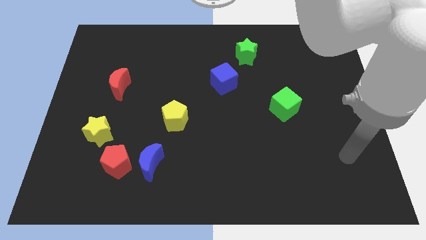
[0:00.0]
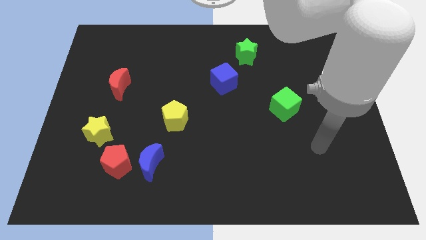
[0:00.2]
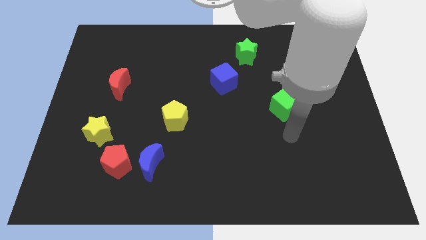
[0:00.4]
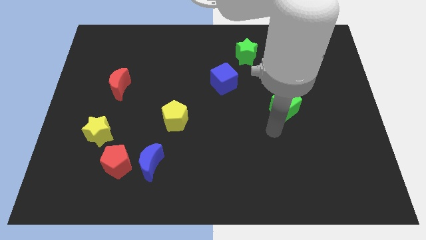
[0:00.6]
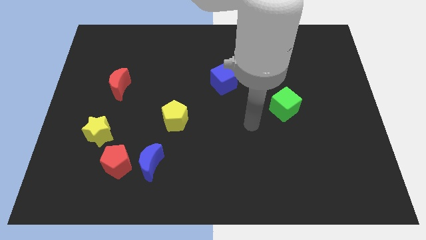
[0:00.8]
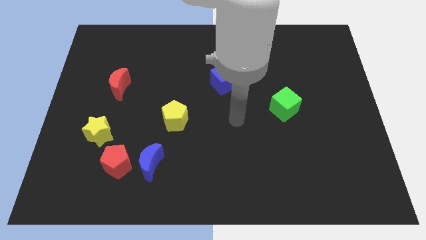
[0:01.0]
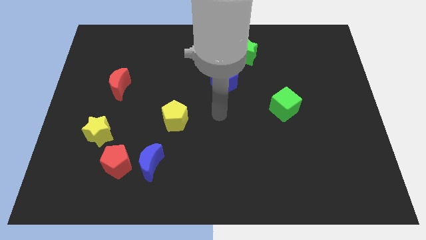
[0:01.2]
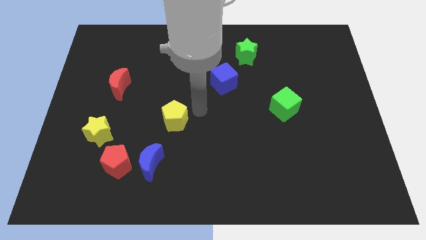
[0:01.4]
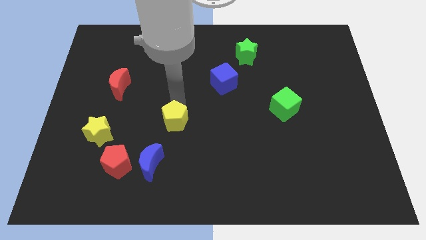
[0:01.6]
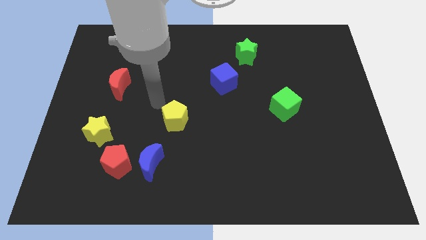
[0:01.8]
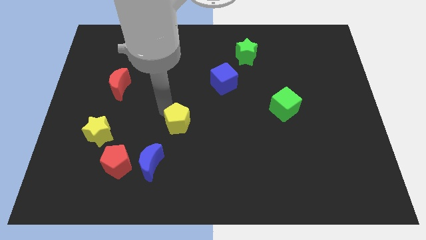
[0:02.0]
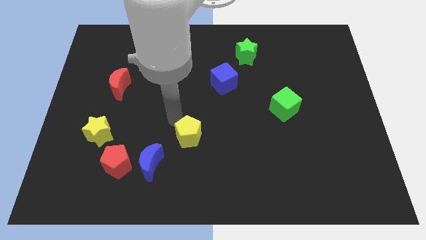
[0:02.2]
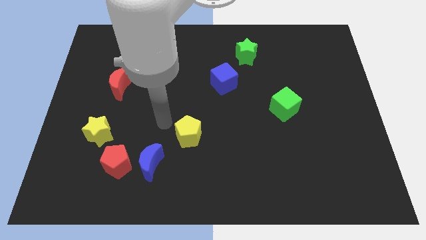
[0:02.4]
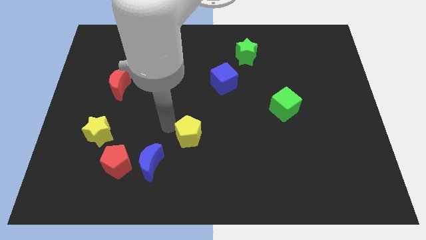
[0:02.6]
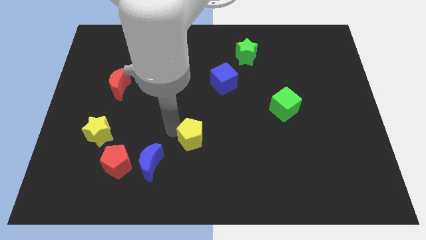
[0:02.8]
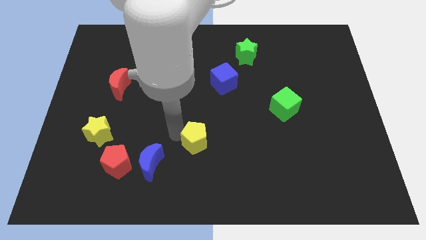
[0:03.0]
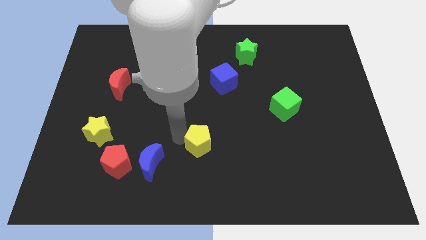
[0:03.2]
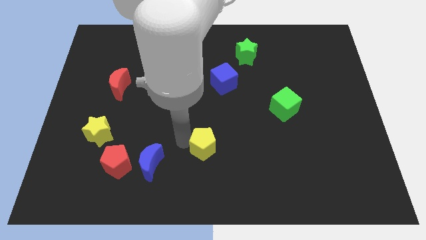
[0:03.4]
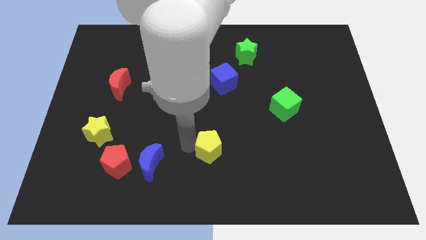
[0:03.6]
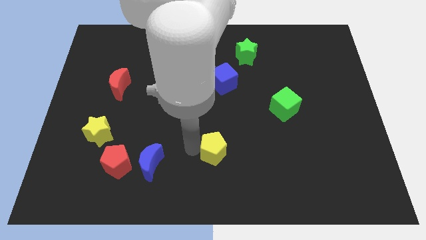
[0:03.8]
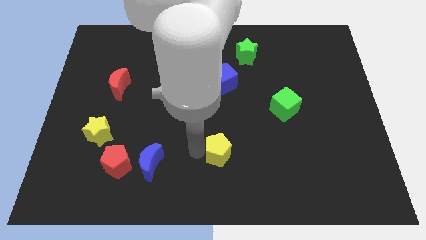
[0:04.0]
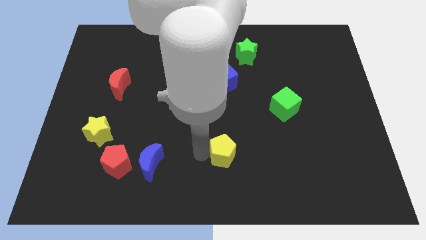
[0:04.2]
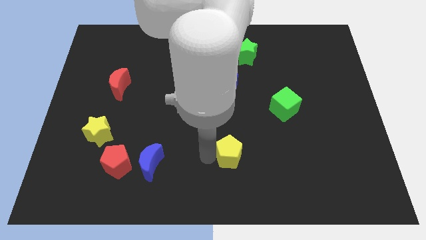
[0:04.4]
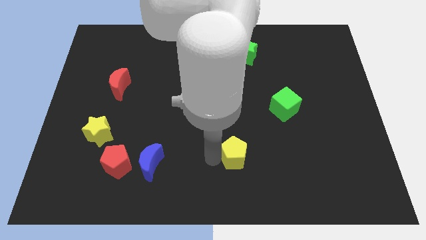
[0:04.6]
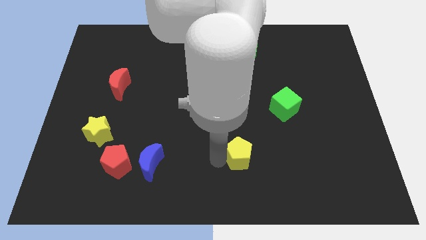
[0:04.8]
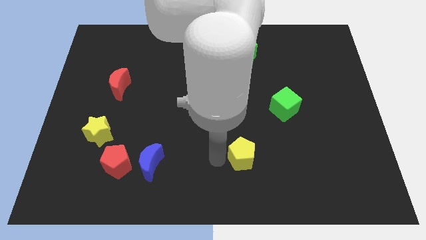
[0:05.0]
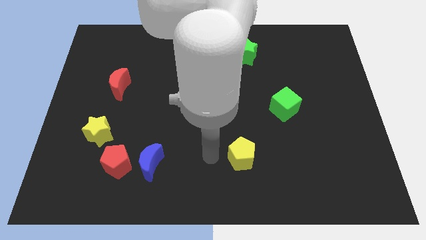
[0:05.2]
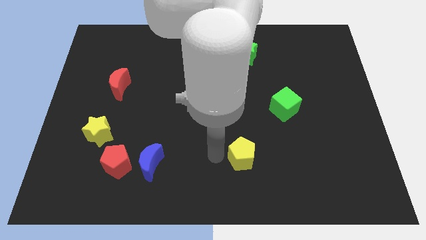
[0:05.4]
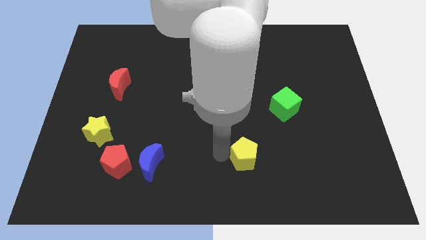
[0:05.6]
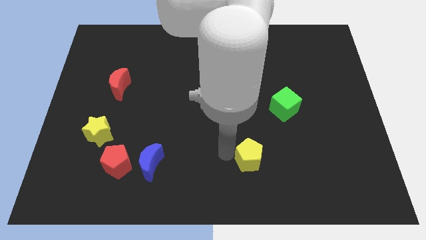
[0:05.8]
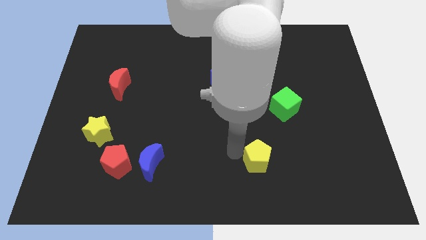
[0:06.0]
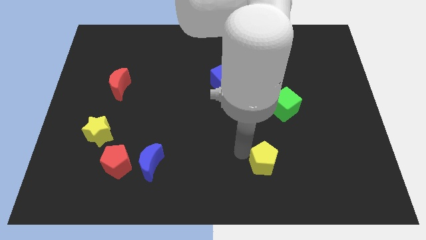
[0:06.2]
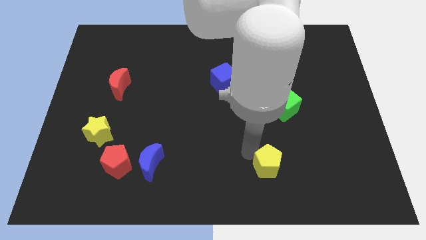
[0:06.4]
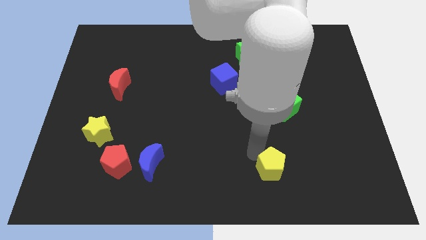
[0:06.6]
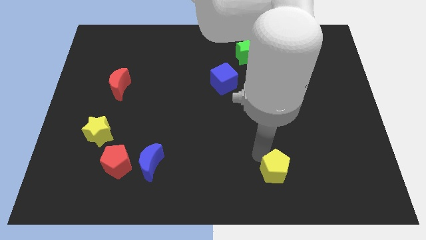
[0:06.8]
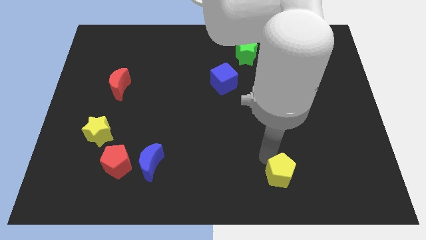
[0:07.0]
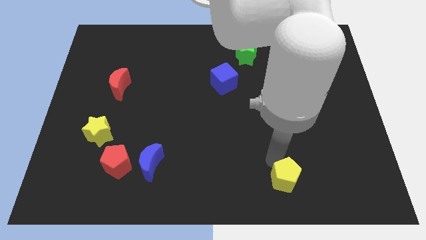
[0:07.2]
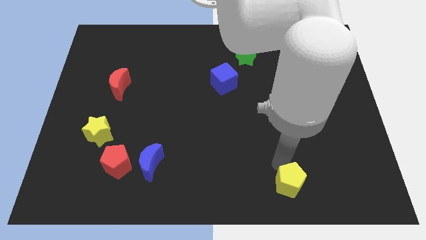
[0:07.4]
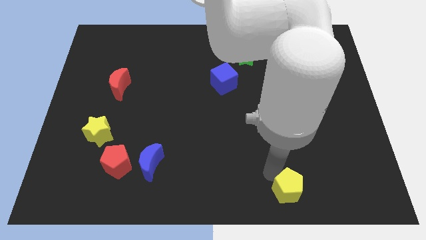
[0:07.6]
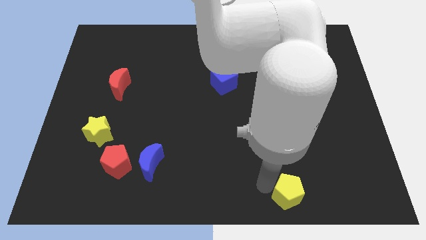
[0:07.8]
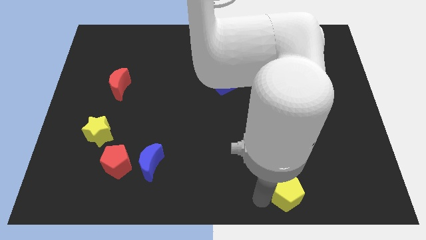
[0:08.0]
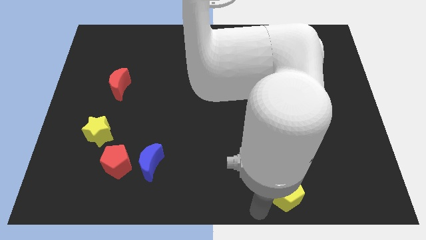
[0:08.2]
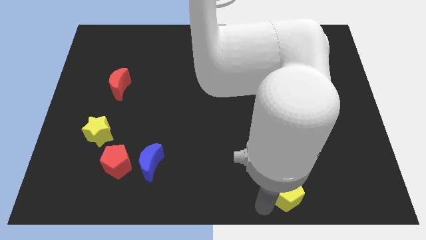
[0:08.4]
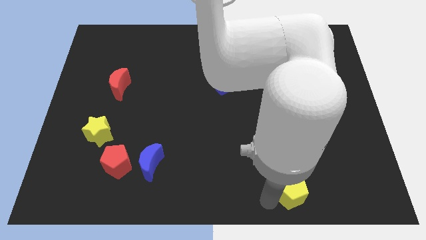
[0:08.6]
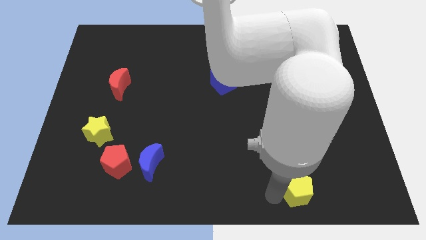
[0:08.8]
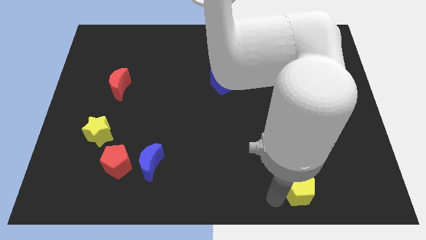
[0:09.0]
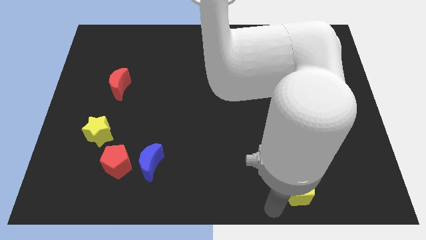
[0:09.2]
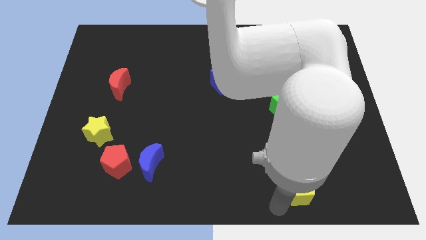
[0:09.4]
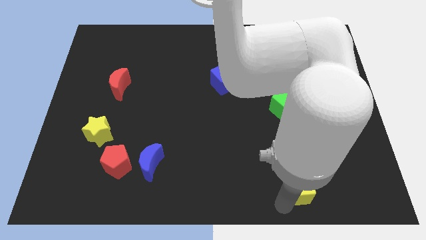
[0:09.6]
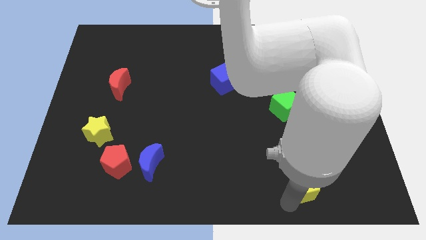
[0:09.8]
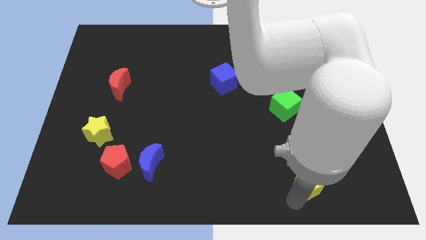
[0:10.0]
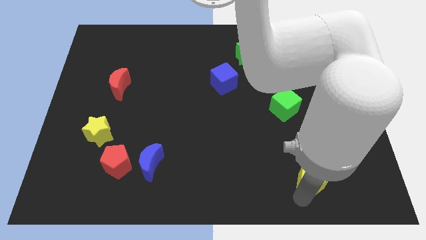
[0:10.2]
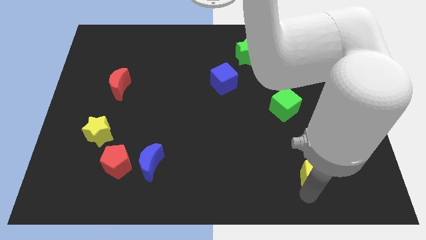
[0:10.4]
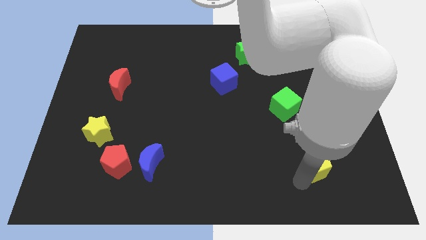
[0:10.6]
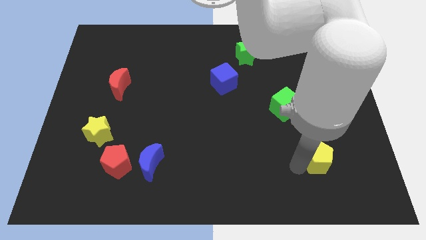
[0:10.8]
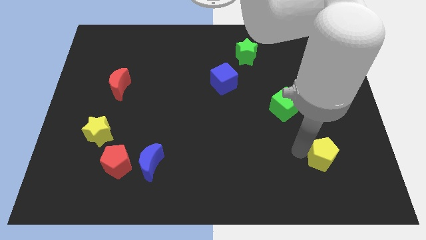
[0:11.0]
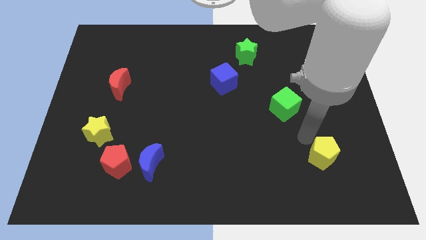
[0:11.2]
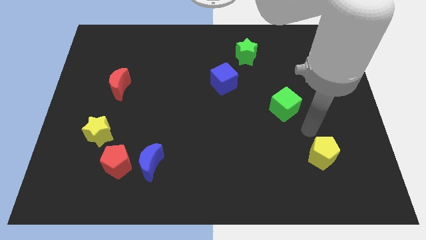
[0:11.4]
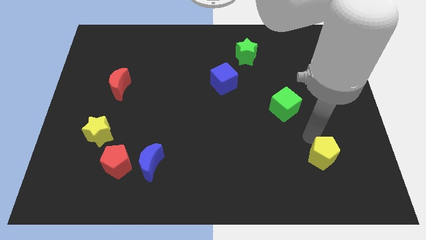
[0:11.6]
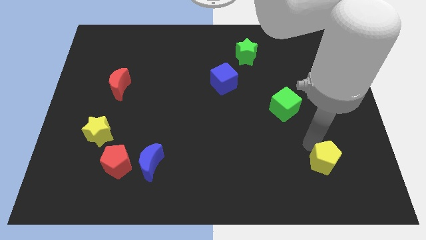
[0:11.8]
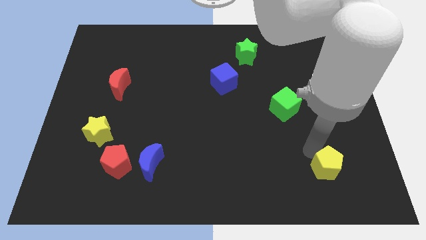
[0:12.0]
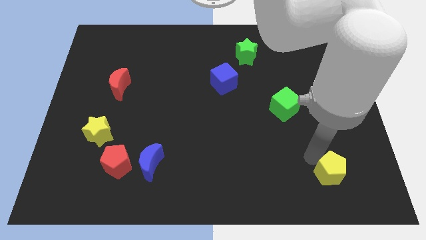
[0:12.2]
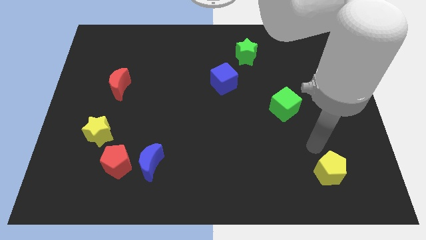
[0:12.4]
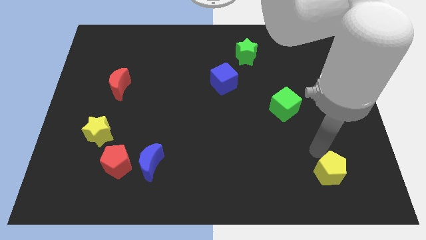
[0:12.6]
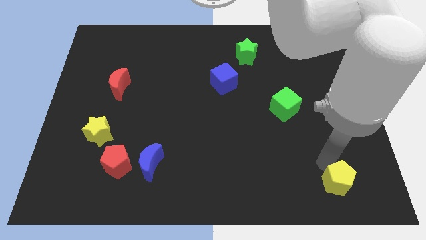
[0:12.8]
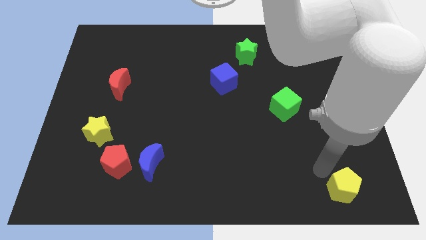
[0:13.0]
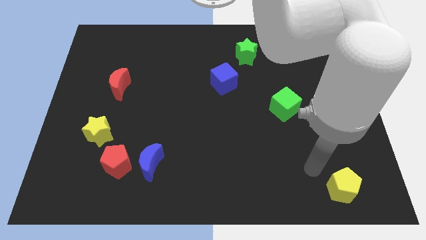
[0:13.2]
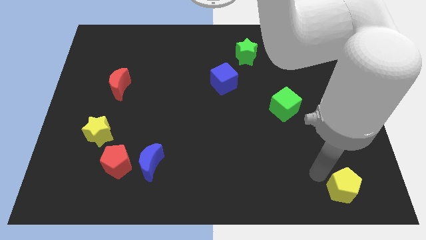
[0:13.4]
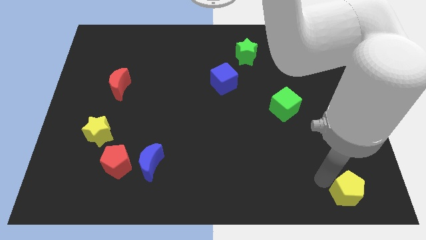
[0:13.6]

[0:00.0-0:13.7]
move the yellow pentagon to the bottom right of the board
